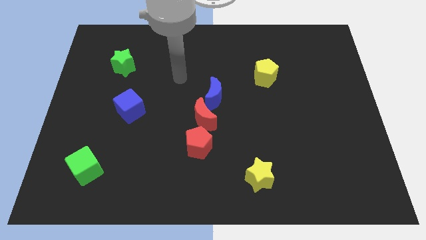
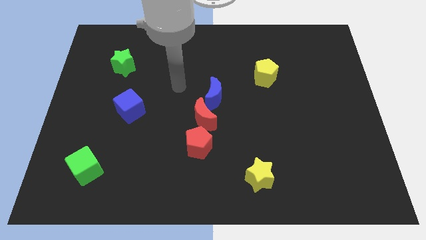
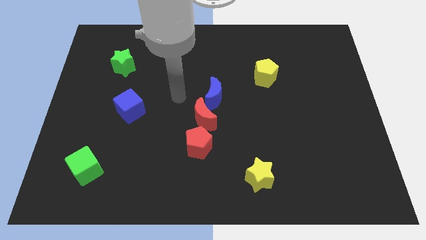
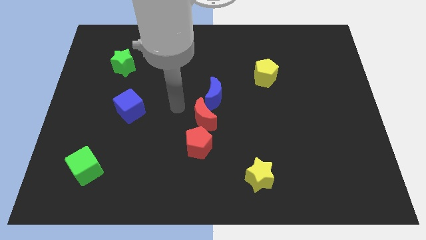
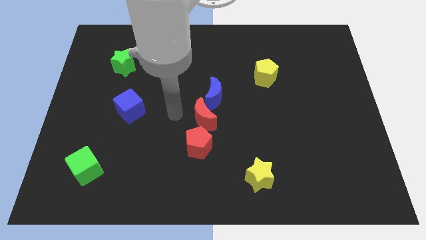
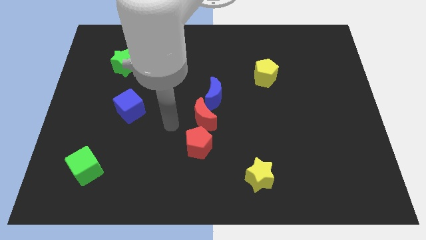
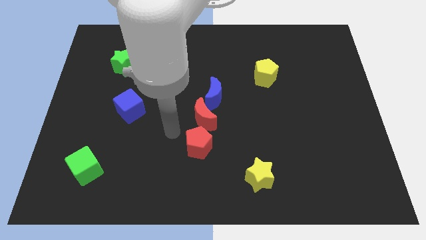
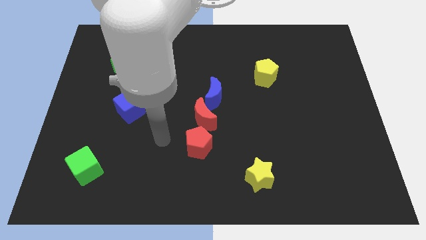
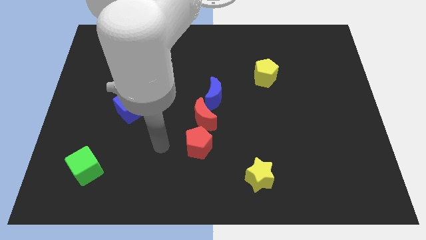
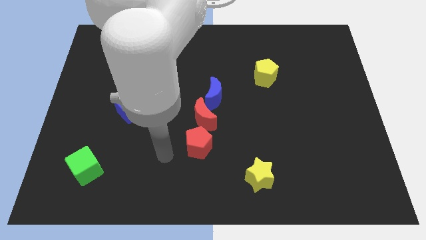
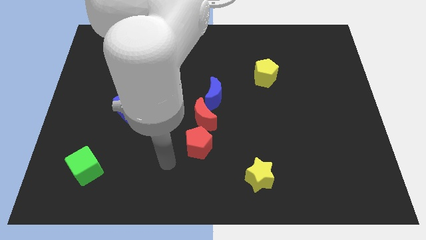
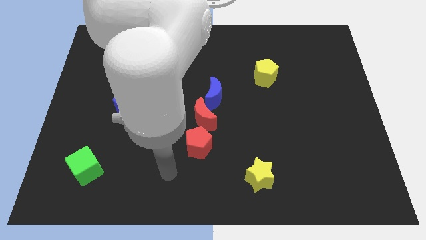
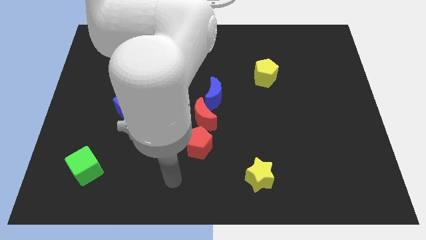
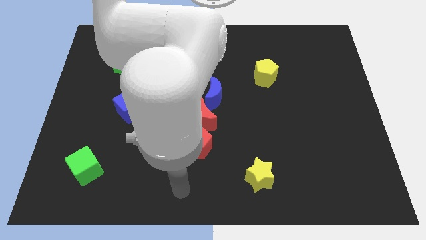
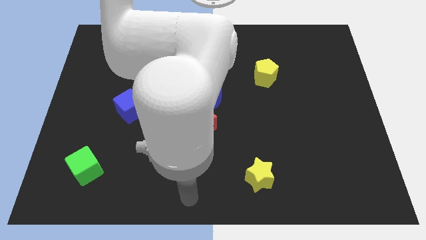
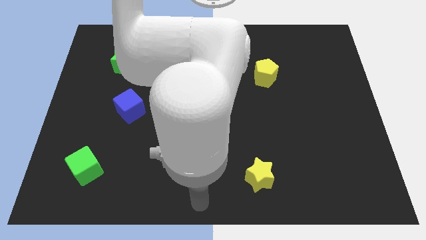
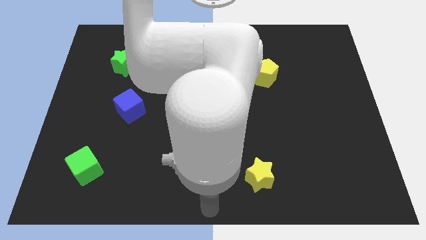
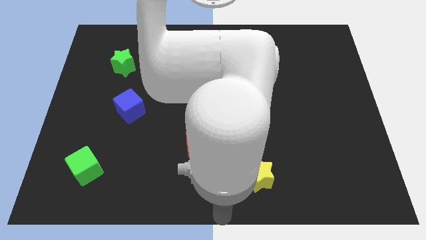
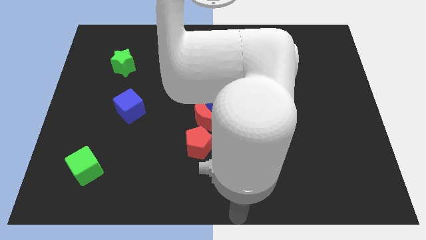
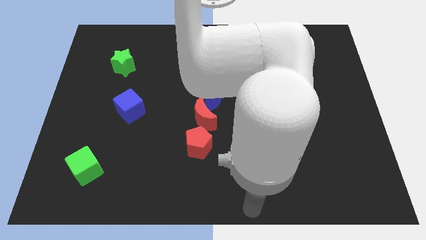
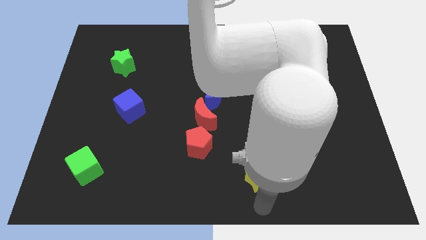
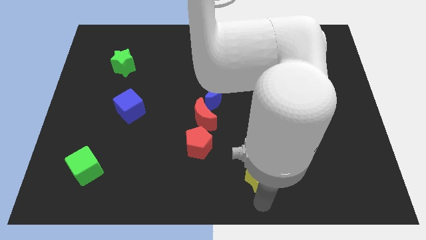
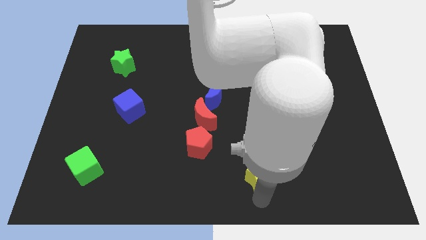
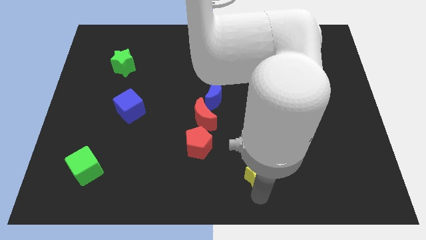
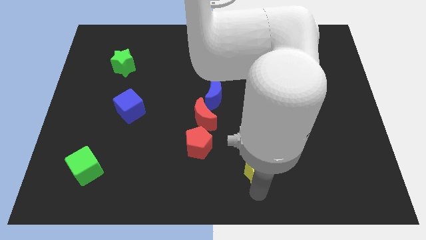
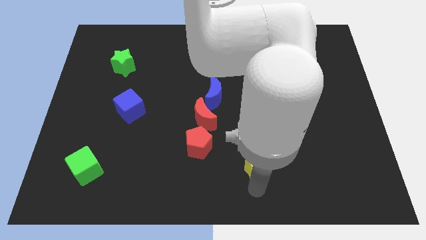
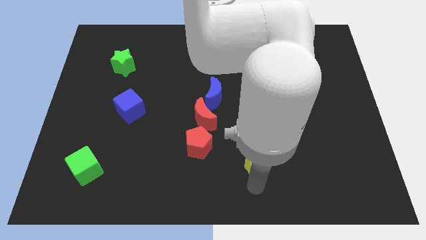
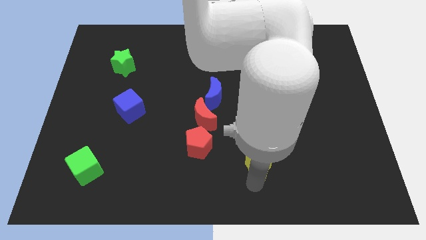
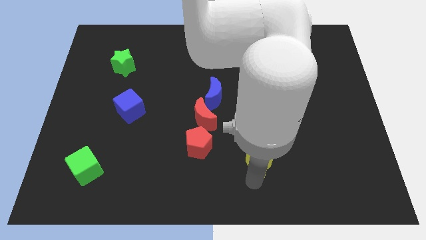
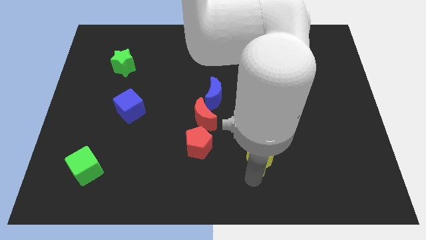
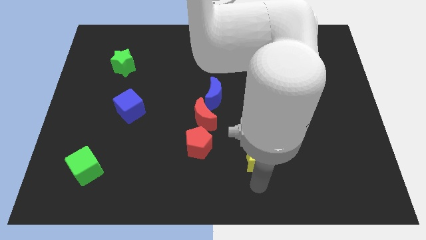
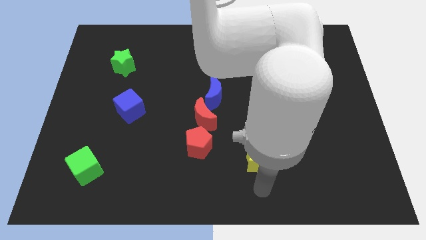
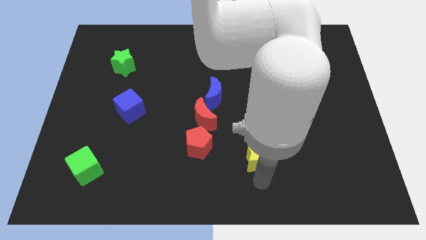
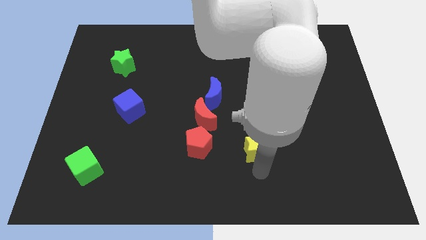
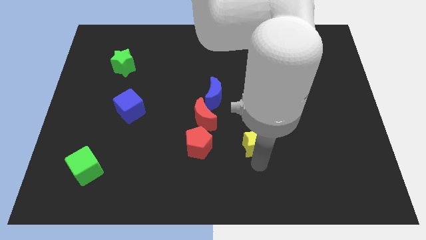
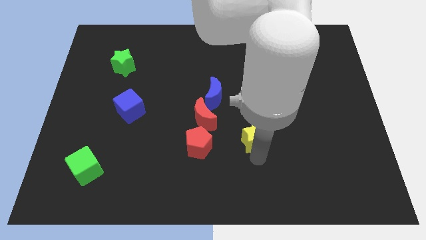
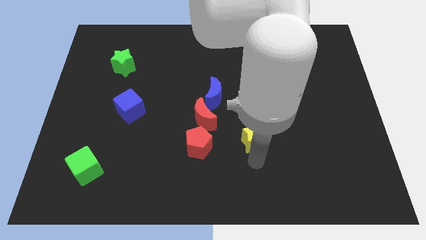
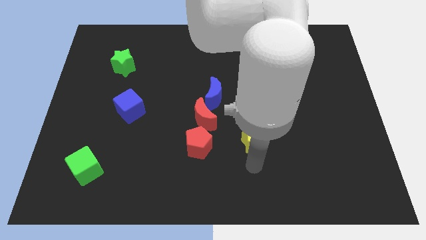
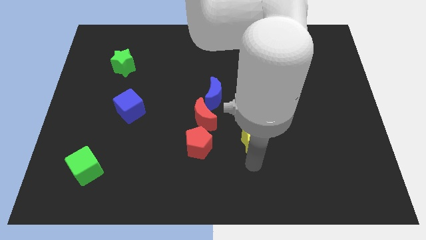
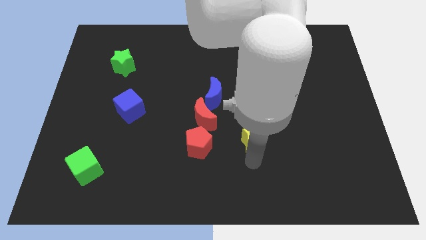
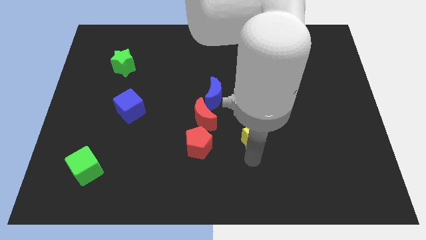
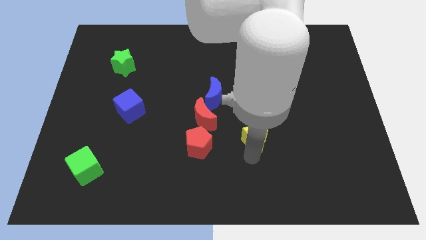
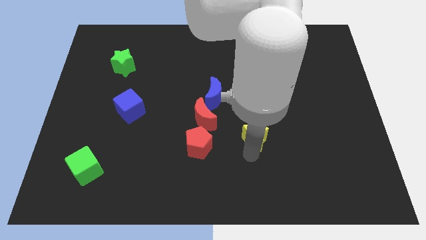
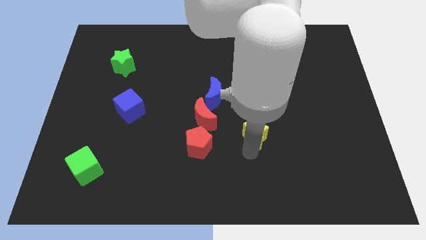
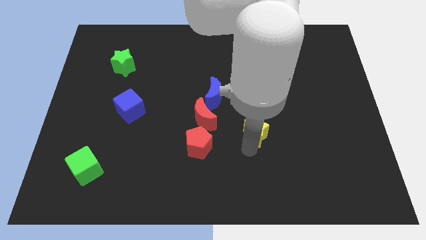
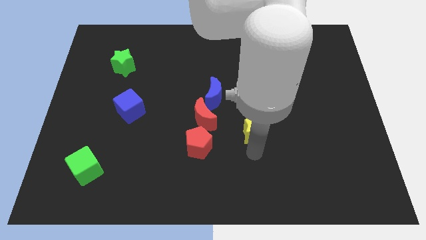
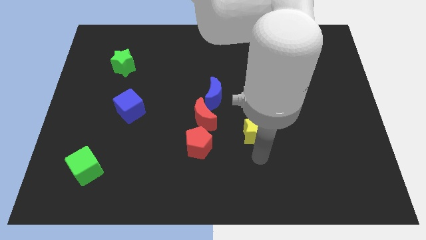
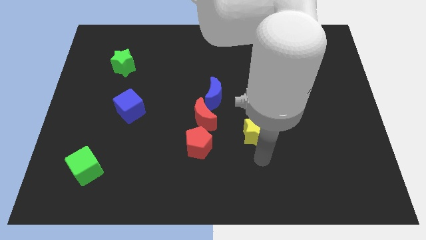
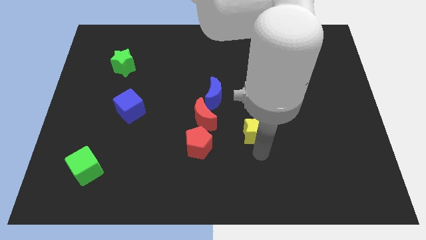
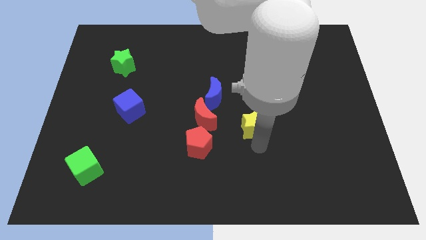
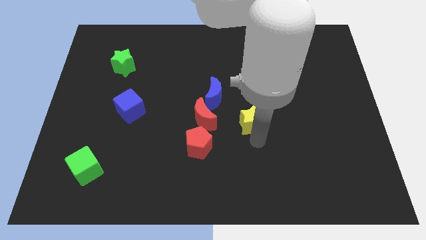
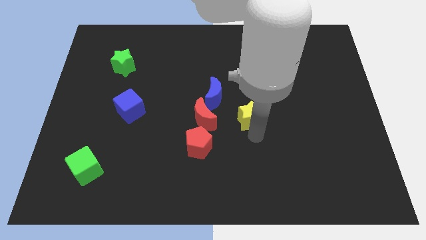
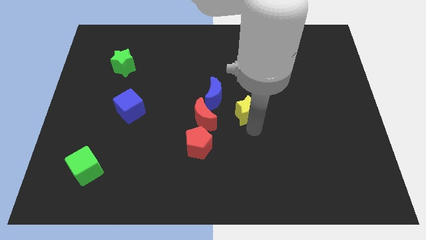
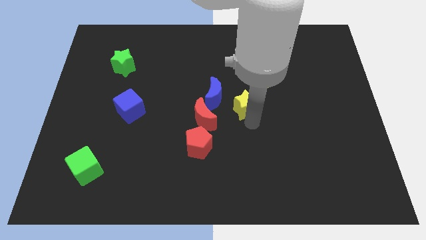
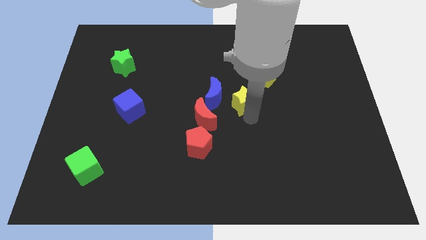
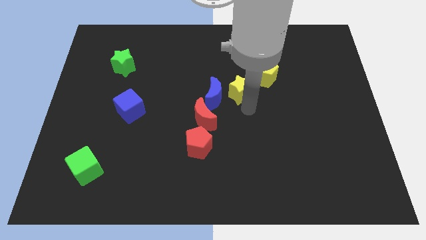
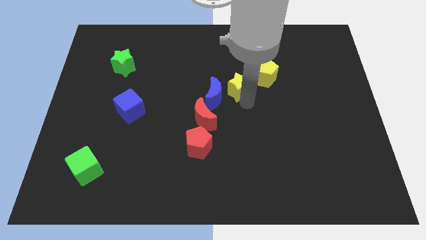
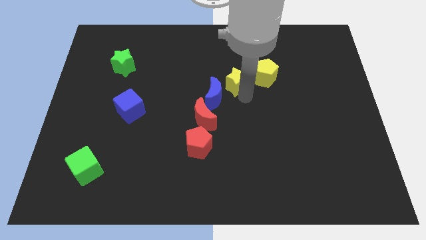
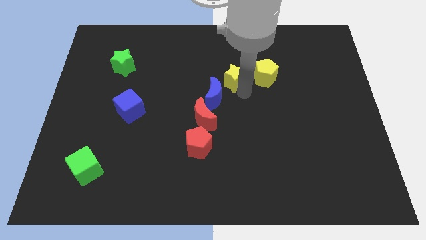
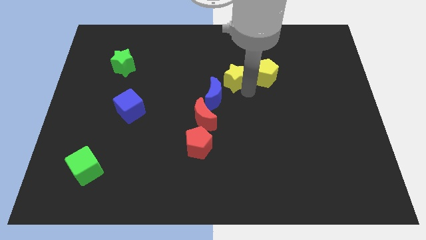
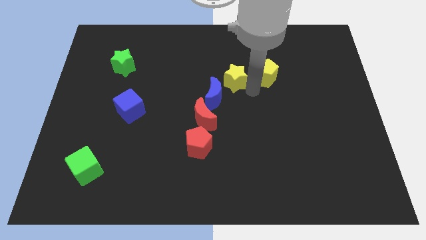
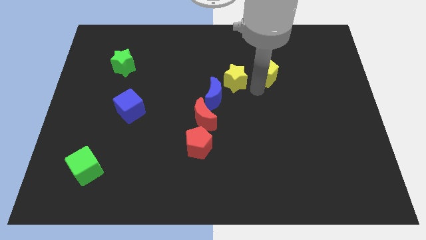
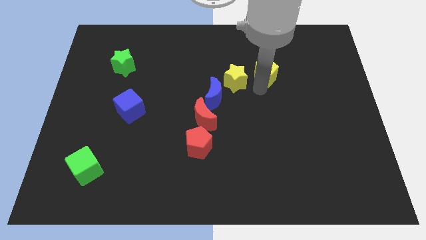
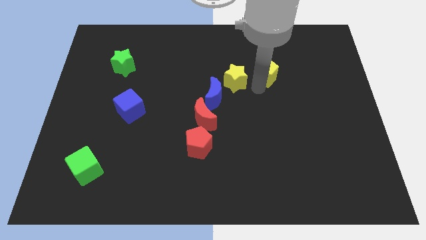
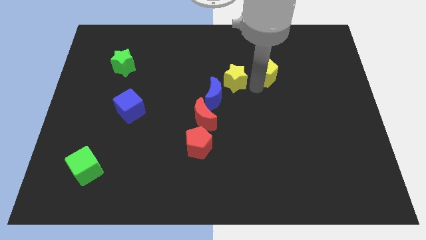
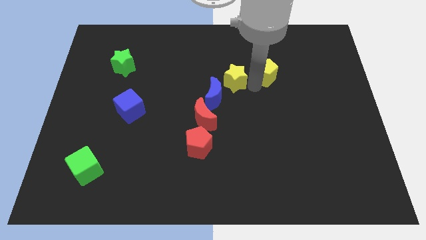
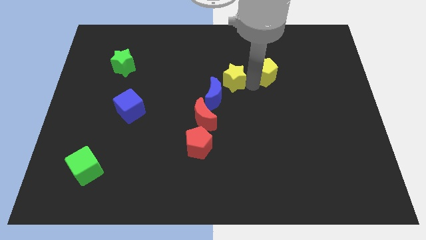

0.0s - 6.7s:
slide the yellow star to the top side of the blue moon

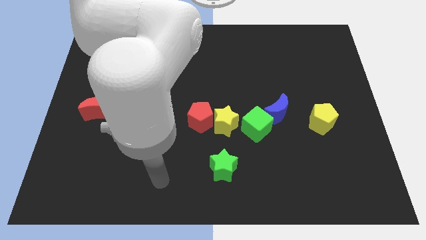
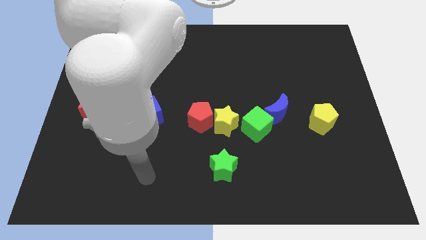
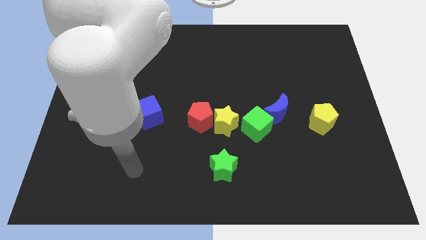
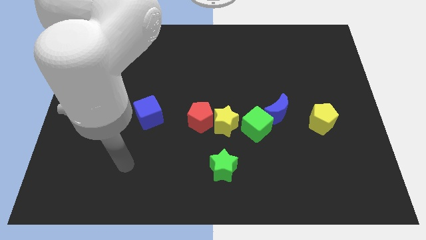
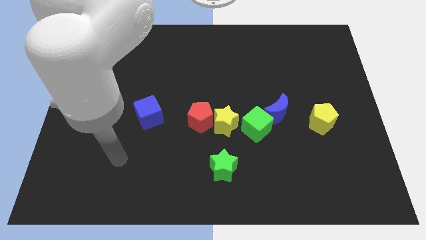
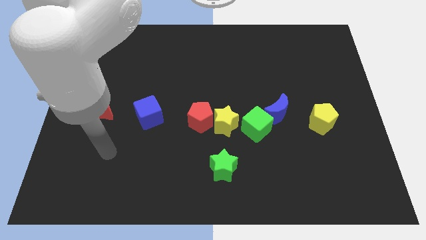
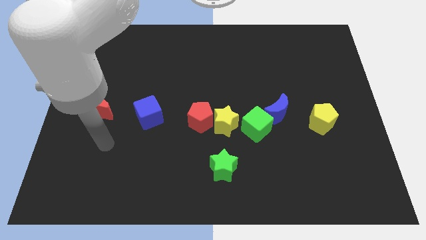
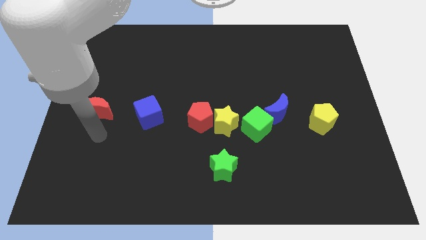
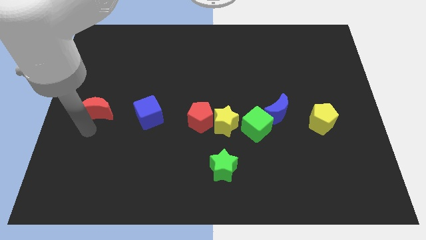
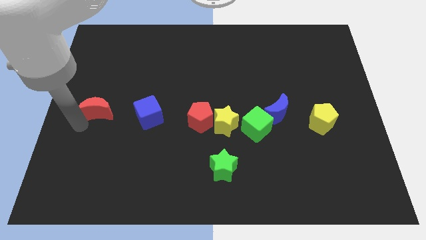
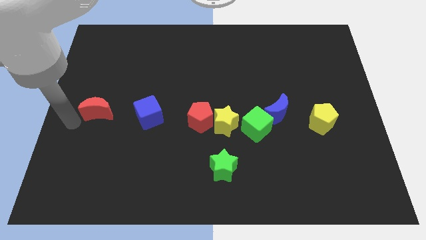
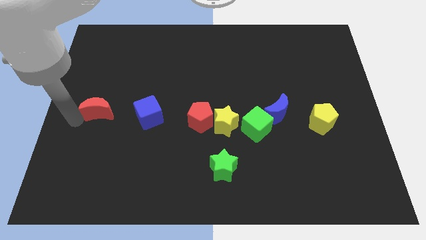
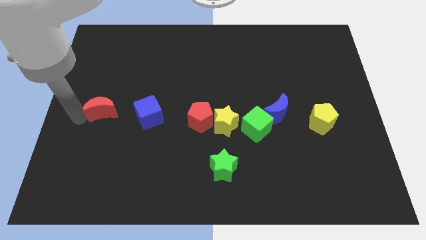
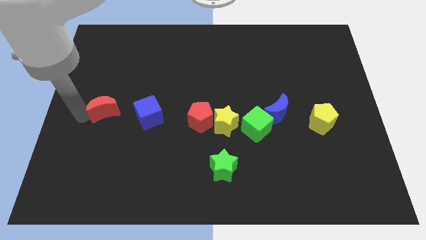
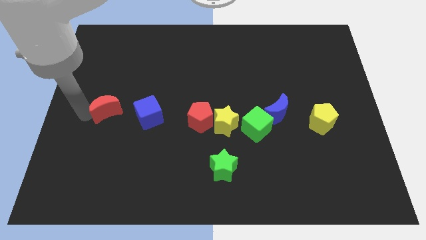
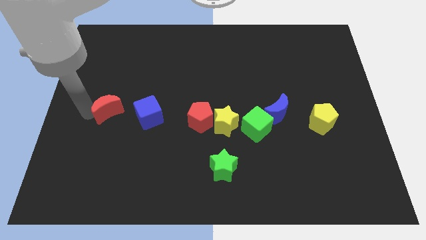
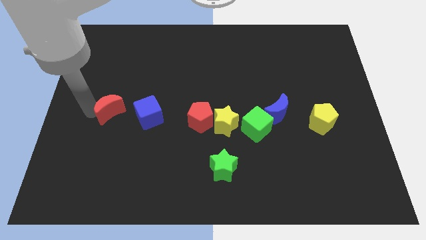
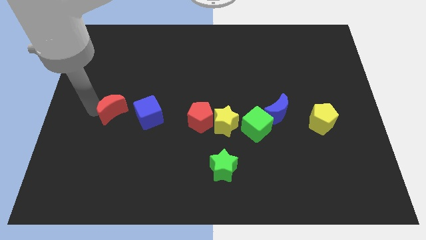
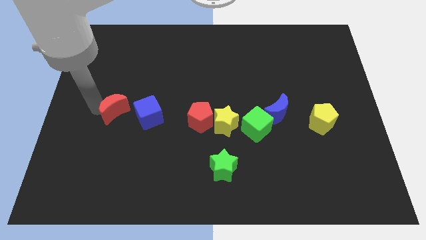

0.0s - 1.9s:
move the red moon to the top left of the blue cube
